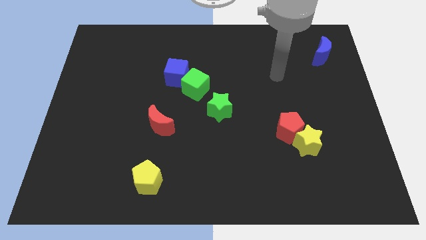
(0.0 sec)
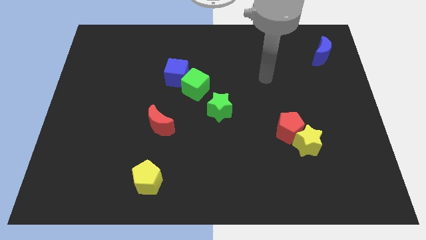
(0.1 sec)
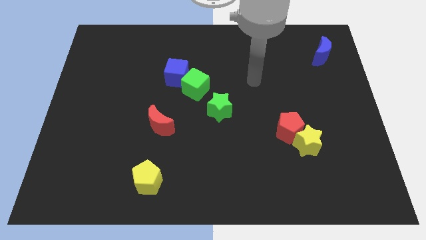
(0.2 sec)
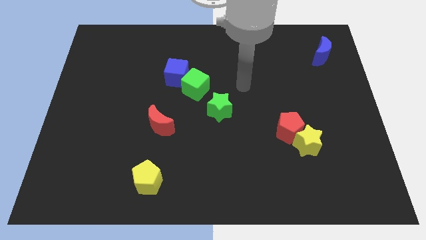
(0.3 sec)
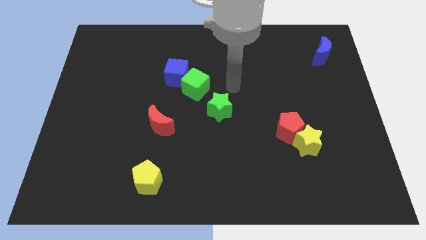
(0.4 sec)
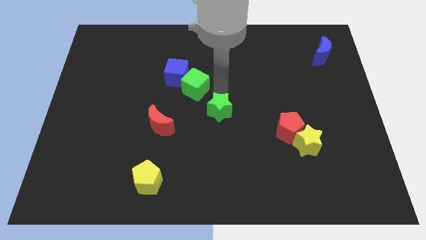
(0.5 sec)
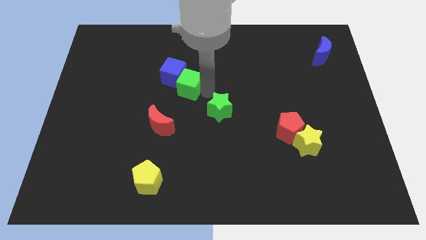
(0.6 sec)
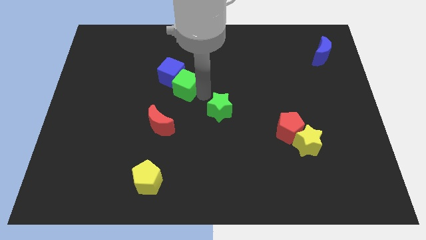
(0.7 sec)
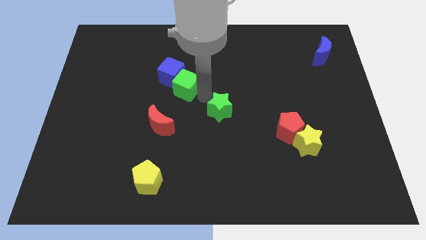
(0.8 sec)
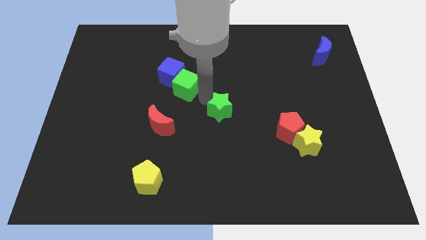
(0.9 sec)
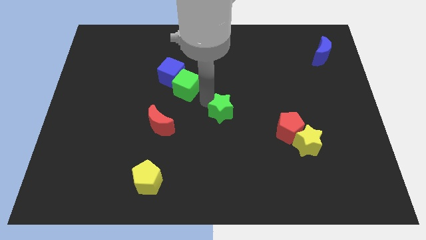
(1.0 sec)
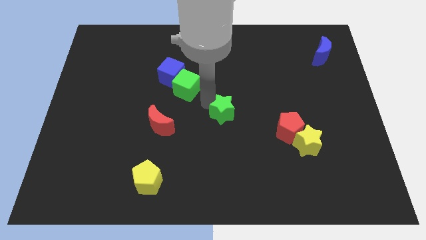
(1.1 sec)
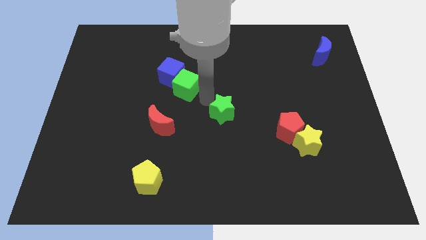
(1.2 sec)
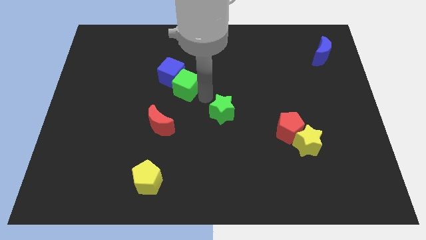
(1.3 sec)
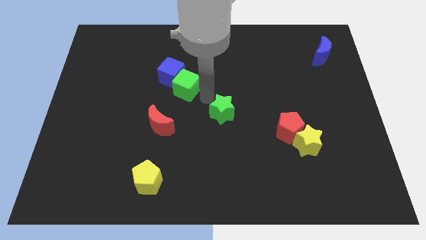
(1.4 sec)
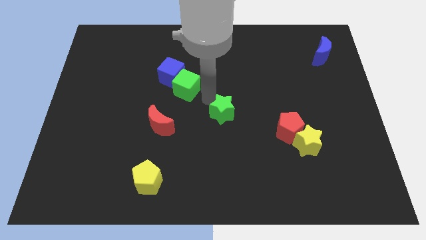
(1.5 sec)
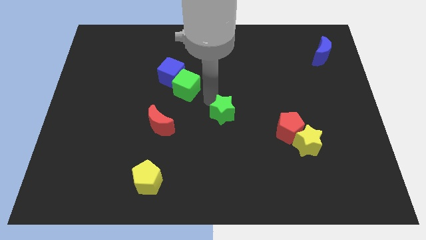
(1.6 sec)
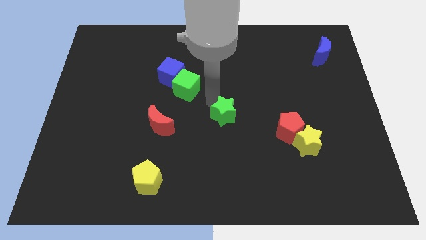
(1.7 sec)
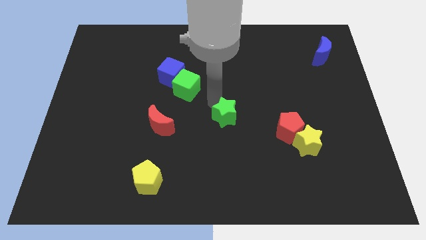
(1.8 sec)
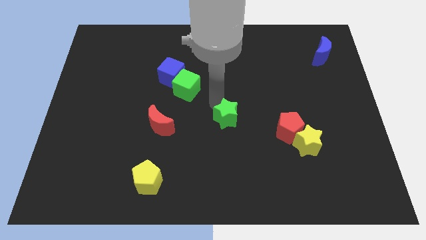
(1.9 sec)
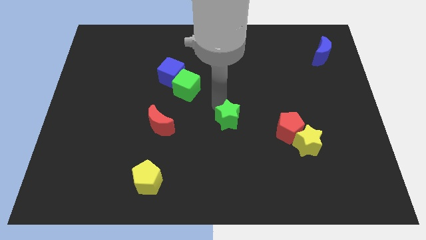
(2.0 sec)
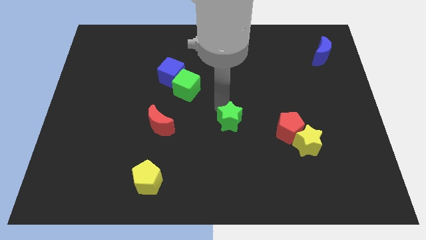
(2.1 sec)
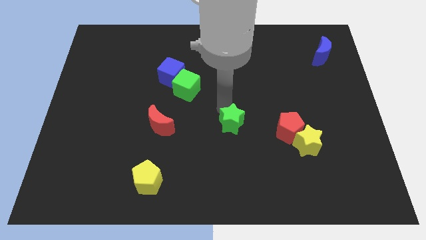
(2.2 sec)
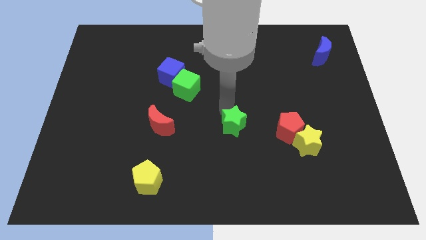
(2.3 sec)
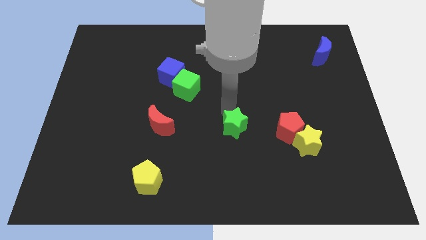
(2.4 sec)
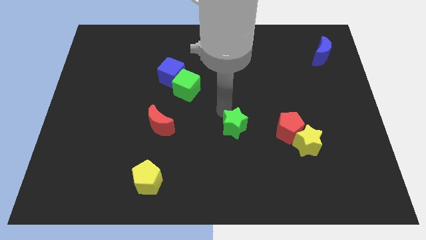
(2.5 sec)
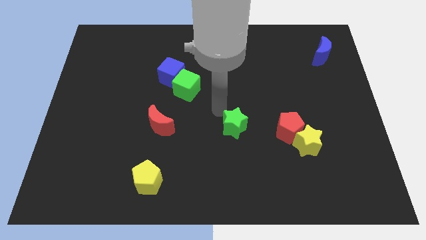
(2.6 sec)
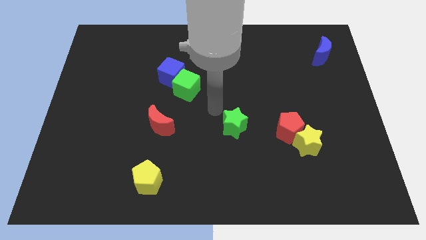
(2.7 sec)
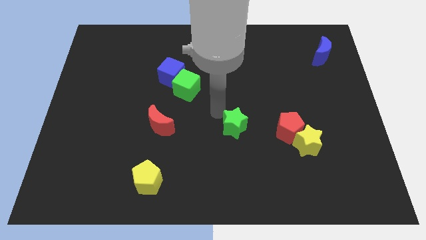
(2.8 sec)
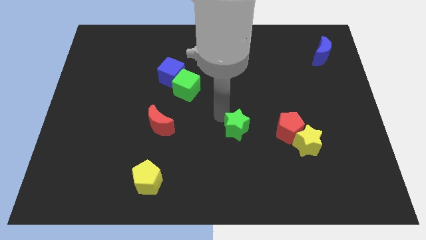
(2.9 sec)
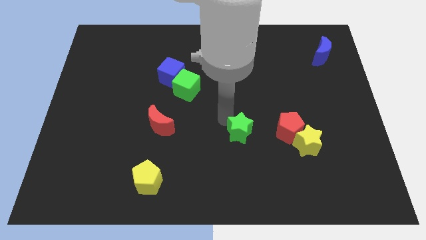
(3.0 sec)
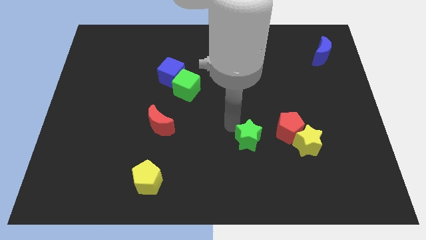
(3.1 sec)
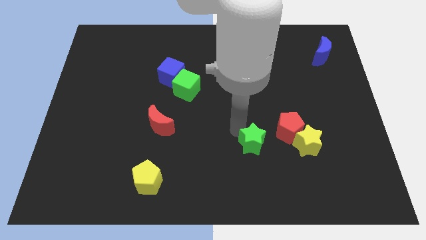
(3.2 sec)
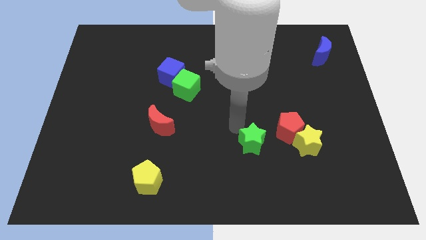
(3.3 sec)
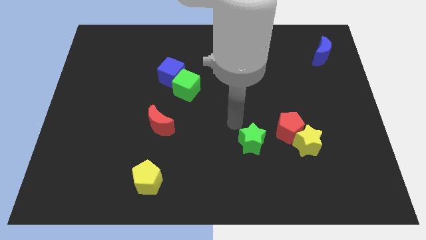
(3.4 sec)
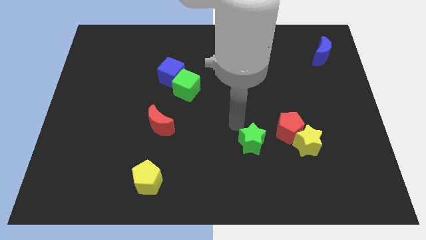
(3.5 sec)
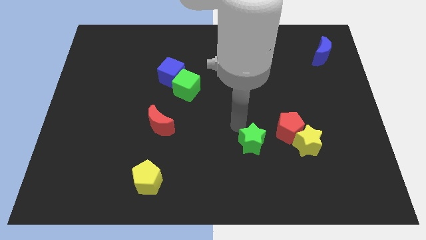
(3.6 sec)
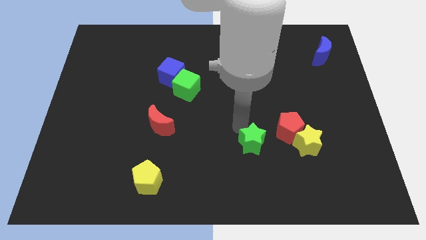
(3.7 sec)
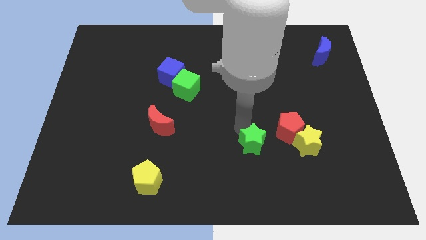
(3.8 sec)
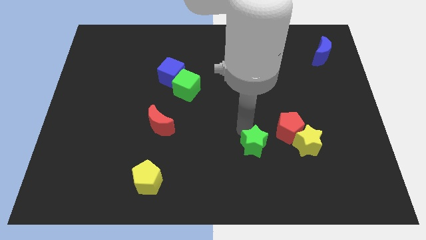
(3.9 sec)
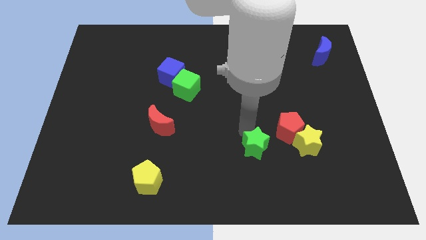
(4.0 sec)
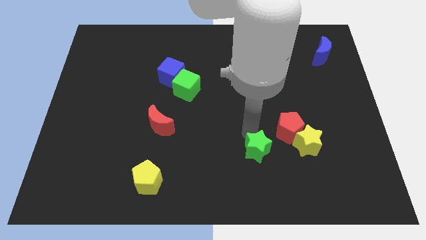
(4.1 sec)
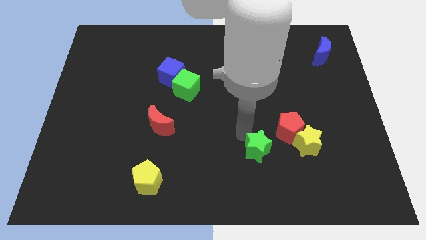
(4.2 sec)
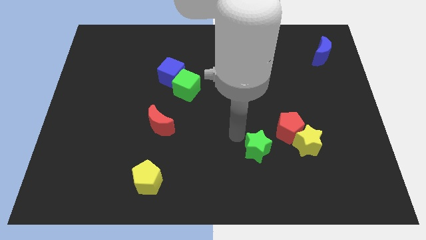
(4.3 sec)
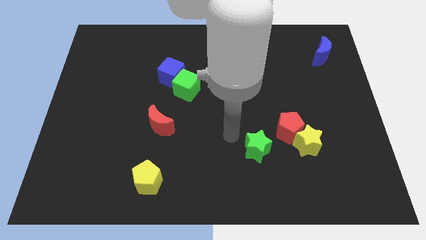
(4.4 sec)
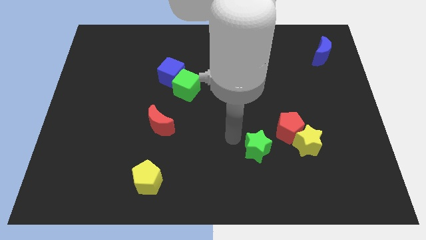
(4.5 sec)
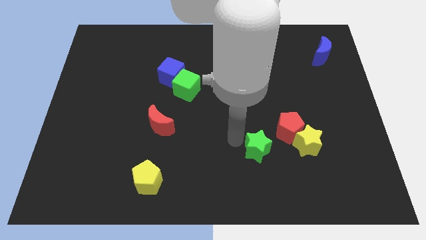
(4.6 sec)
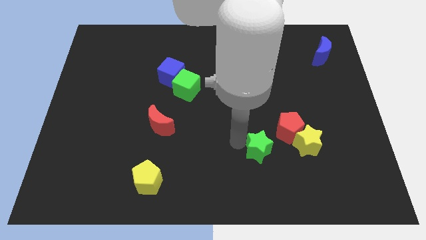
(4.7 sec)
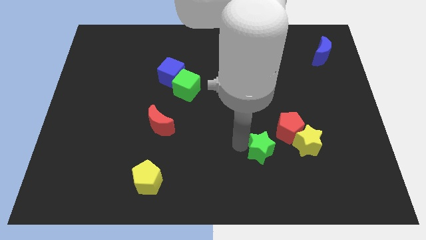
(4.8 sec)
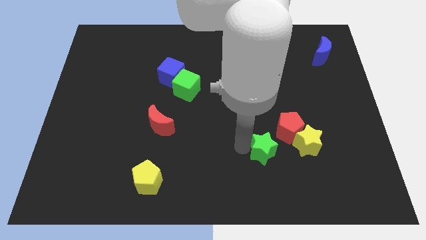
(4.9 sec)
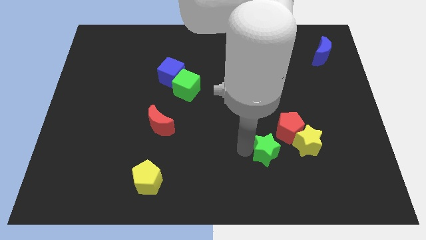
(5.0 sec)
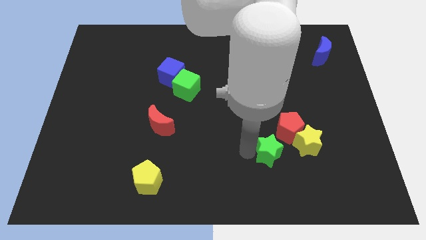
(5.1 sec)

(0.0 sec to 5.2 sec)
slide the green star to the bottom left side of the yellow star

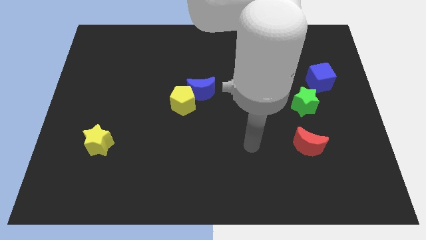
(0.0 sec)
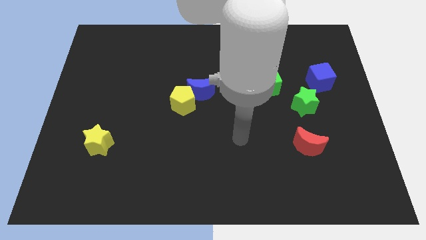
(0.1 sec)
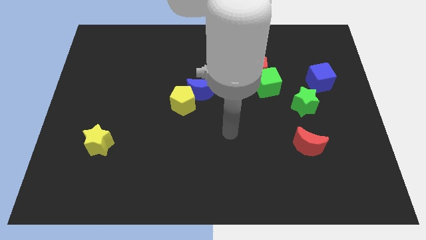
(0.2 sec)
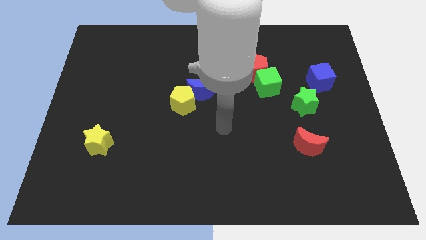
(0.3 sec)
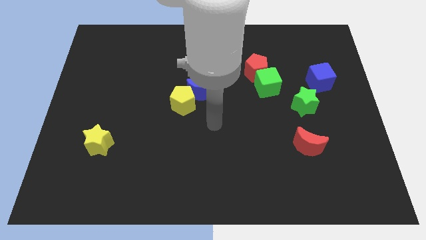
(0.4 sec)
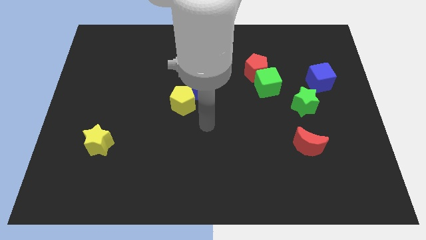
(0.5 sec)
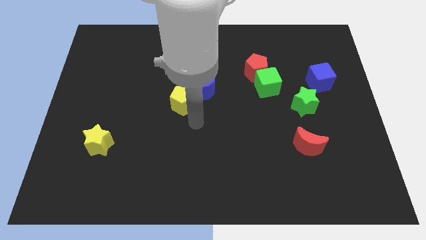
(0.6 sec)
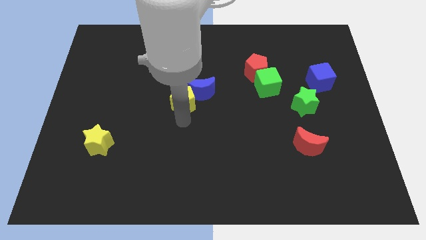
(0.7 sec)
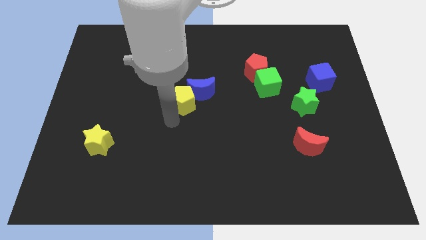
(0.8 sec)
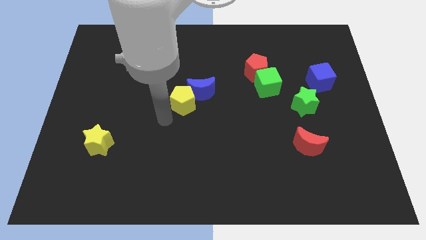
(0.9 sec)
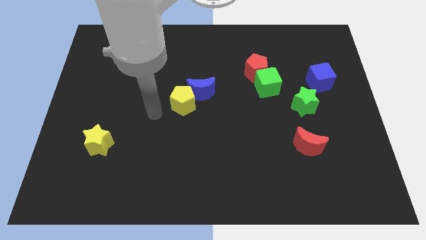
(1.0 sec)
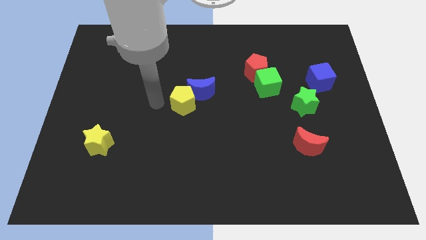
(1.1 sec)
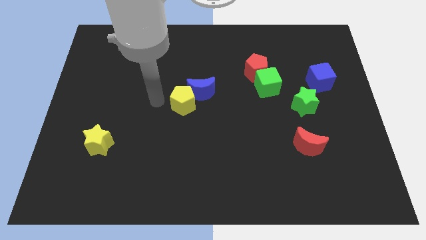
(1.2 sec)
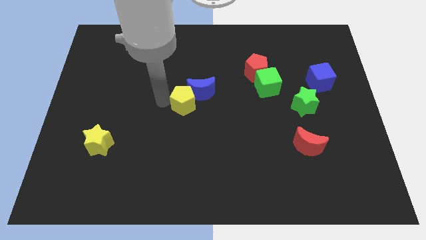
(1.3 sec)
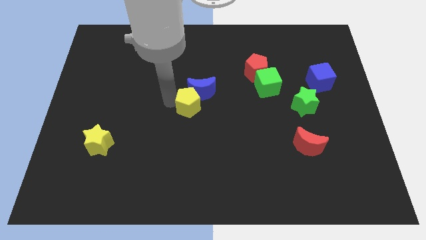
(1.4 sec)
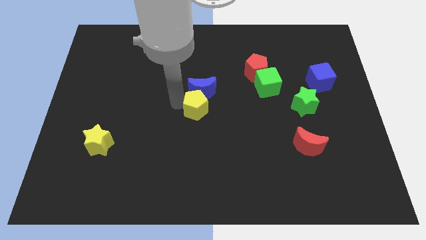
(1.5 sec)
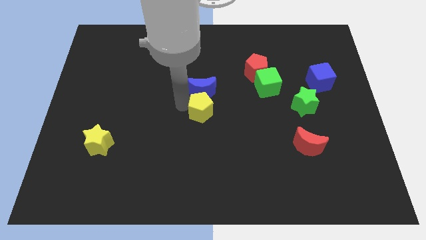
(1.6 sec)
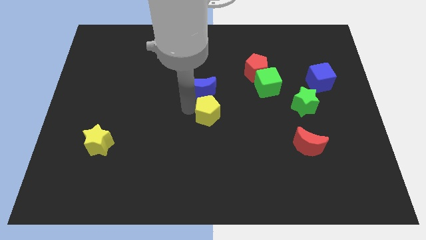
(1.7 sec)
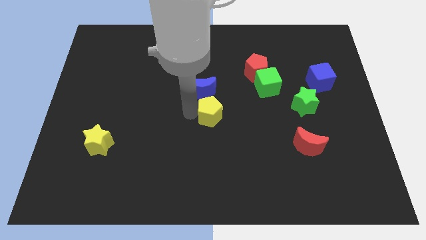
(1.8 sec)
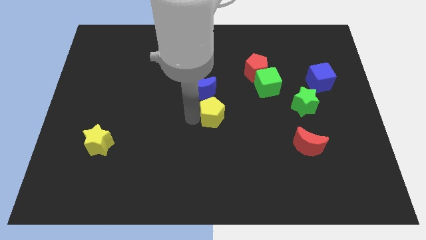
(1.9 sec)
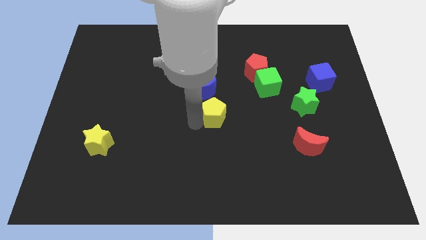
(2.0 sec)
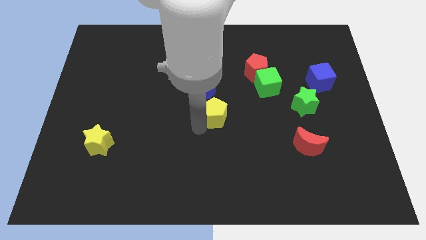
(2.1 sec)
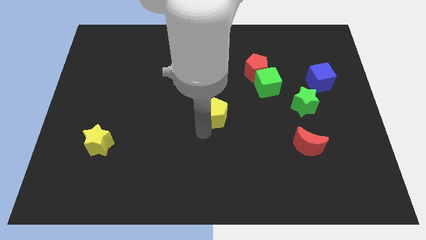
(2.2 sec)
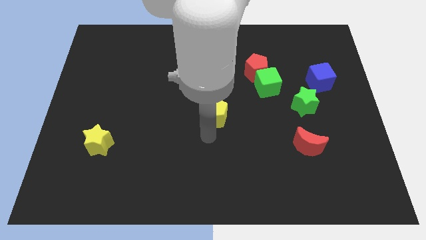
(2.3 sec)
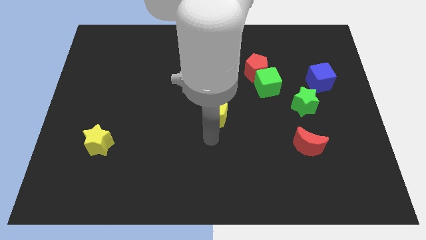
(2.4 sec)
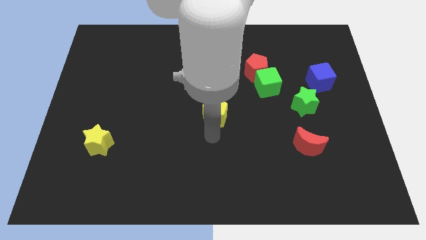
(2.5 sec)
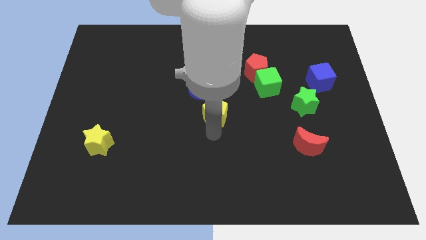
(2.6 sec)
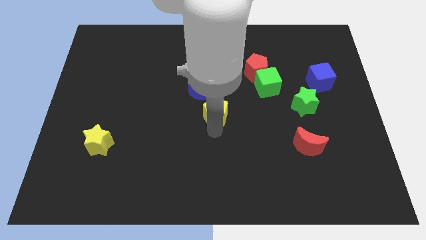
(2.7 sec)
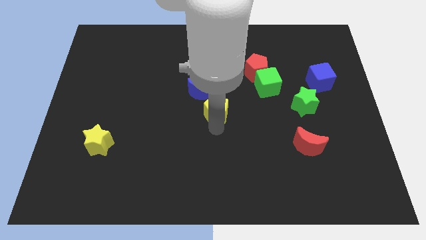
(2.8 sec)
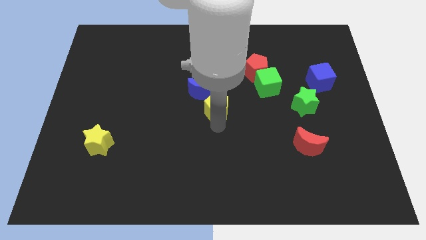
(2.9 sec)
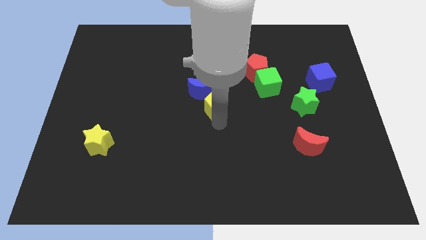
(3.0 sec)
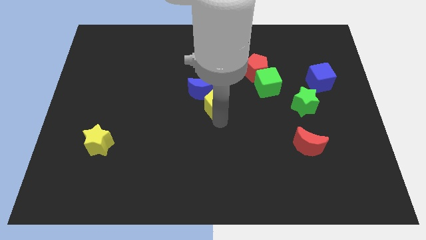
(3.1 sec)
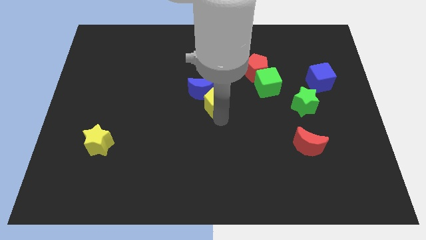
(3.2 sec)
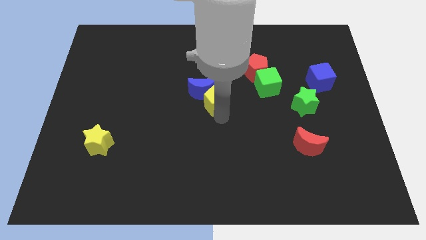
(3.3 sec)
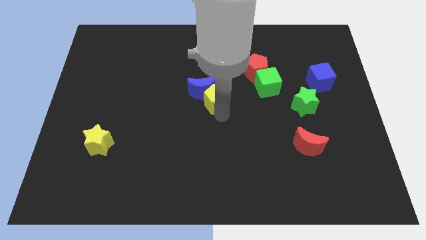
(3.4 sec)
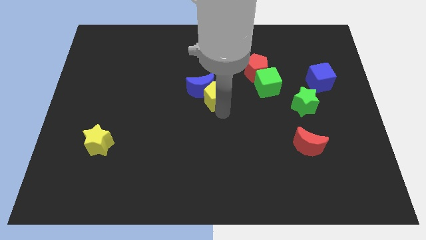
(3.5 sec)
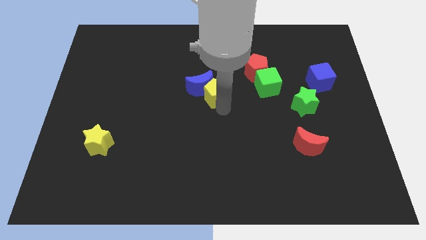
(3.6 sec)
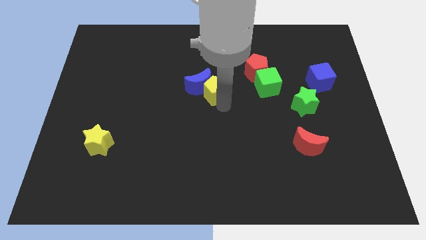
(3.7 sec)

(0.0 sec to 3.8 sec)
put the yellow pentagon to the top right of the blue moon
